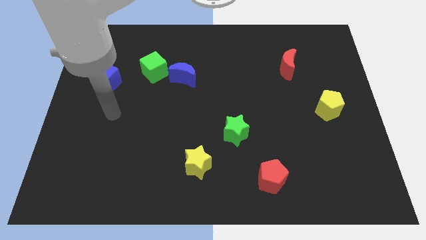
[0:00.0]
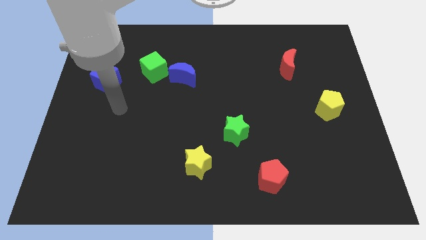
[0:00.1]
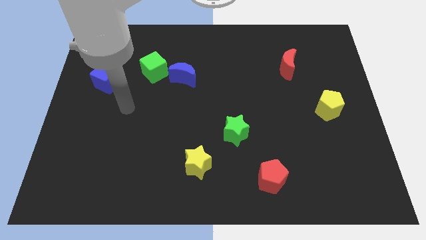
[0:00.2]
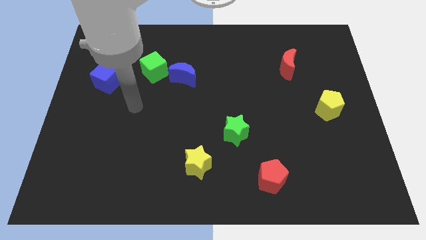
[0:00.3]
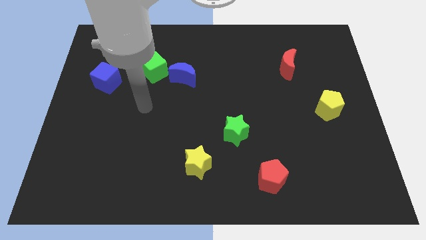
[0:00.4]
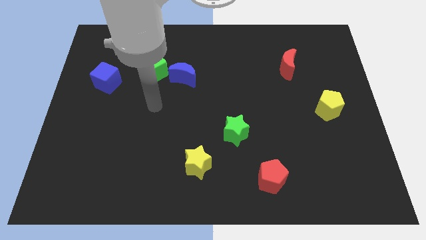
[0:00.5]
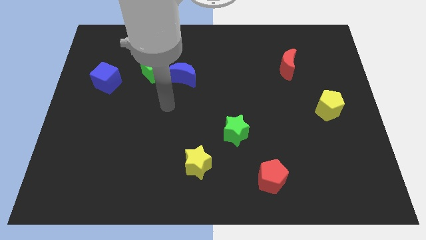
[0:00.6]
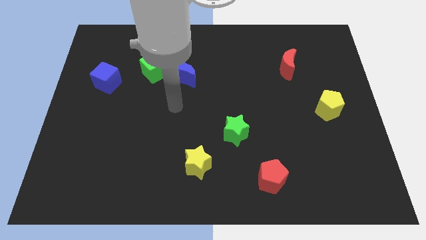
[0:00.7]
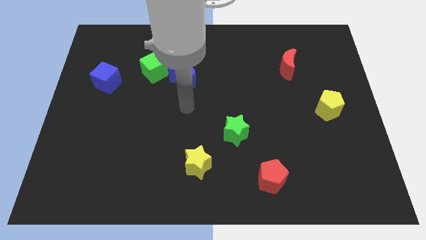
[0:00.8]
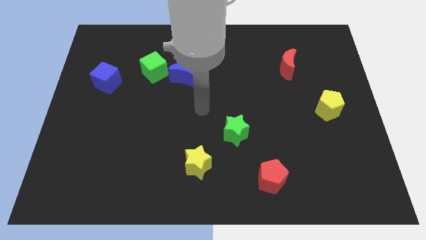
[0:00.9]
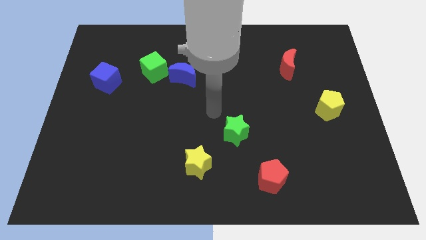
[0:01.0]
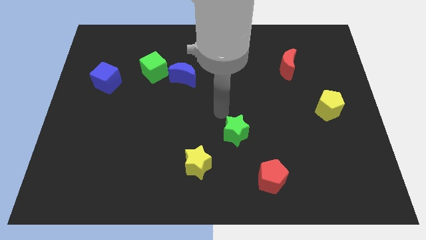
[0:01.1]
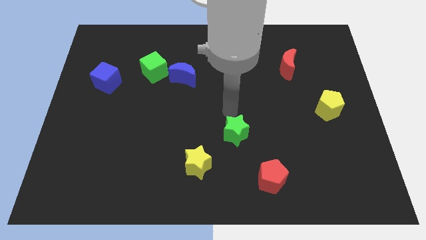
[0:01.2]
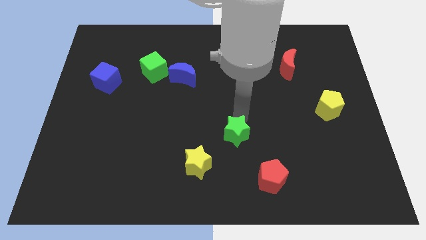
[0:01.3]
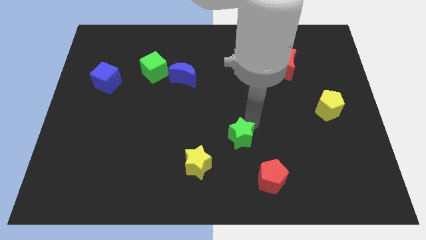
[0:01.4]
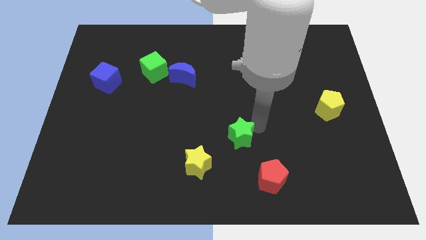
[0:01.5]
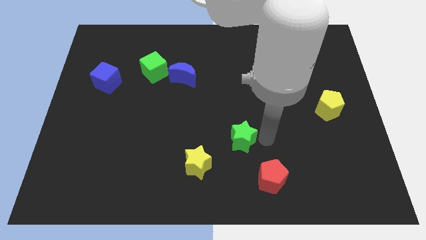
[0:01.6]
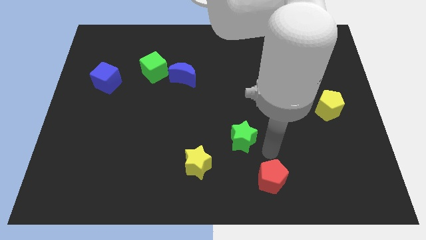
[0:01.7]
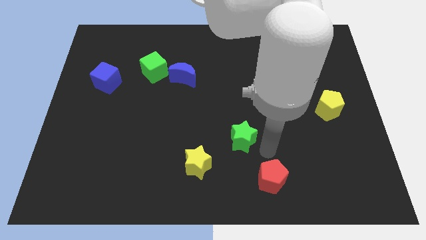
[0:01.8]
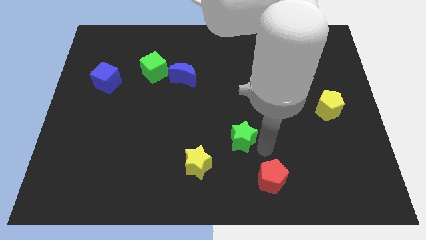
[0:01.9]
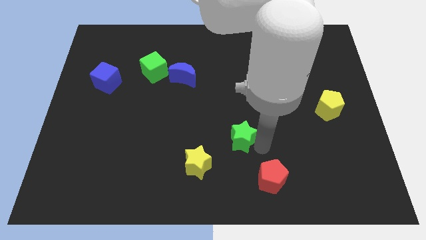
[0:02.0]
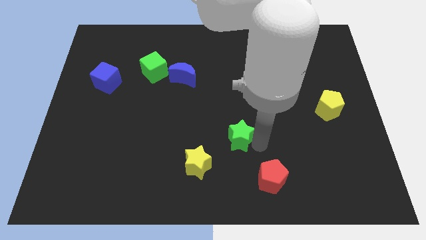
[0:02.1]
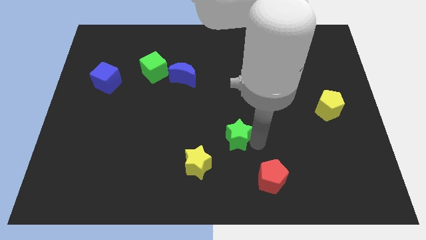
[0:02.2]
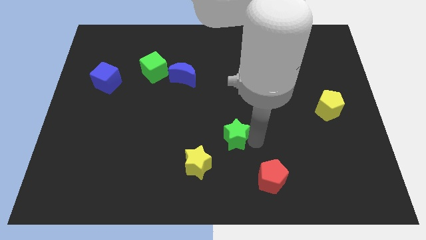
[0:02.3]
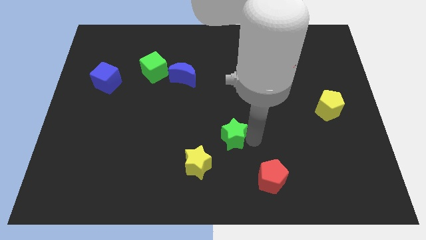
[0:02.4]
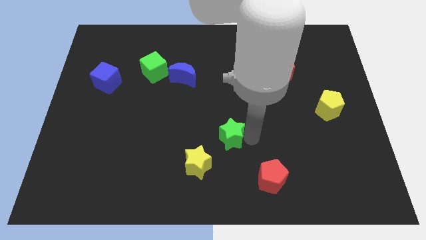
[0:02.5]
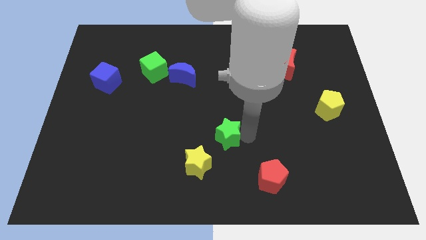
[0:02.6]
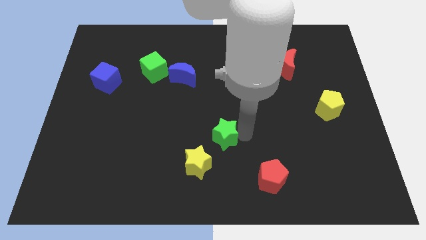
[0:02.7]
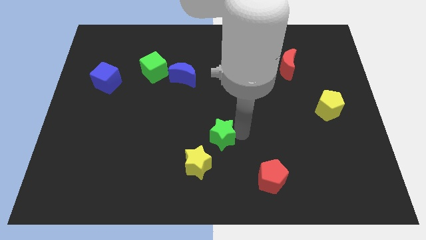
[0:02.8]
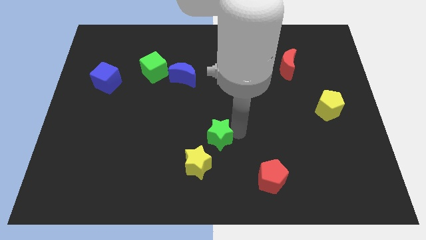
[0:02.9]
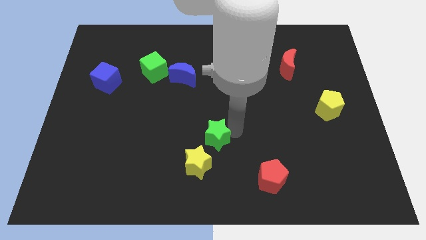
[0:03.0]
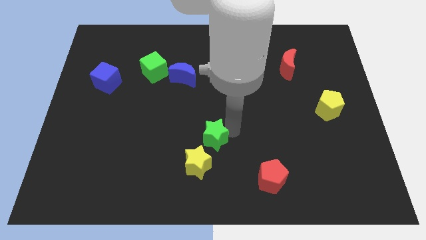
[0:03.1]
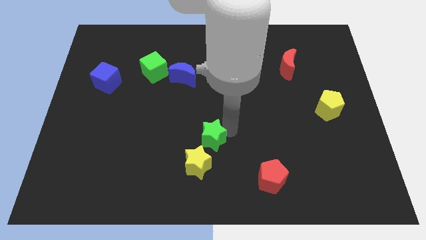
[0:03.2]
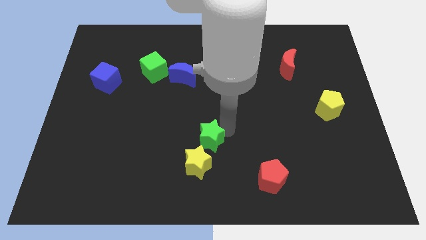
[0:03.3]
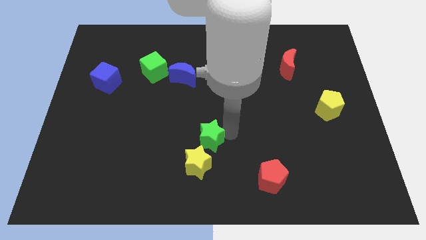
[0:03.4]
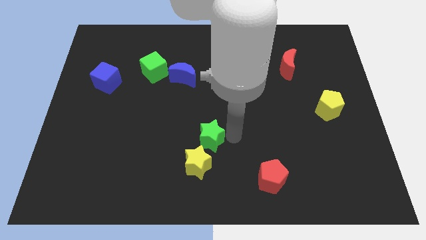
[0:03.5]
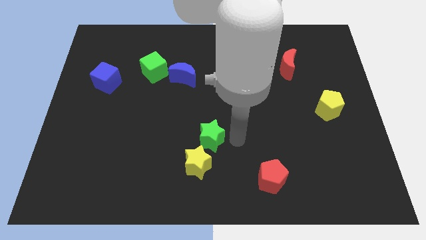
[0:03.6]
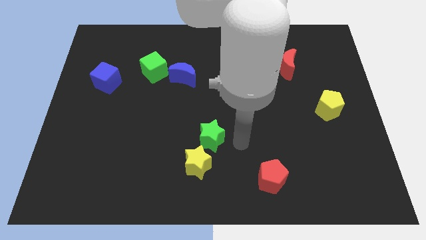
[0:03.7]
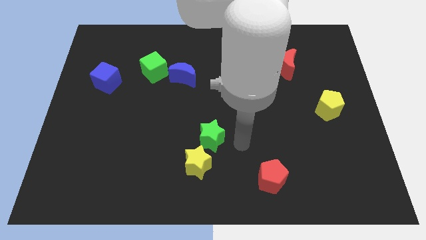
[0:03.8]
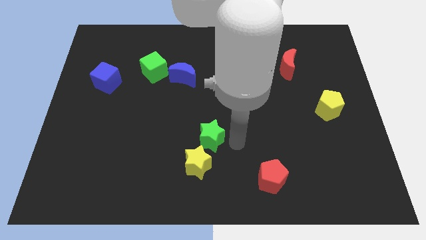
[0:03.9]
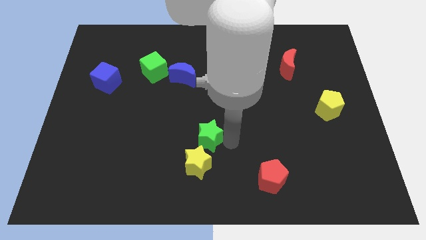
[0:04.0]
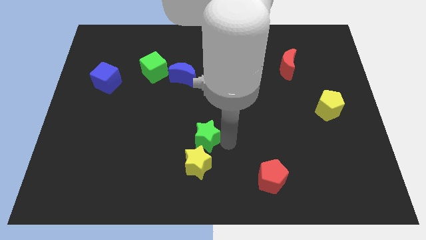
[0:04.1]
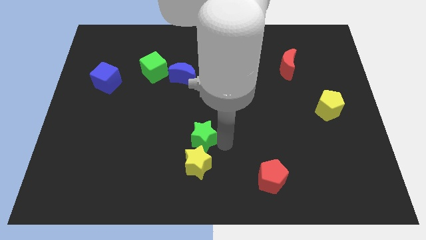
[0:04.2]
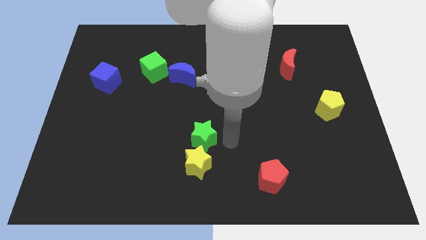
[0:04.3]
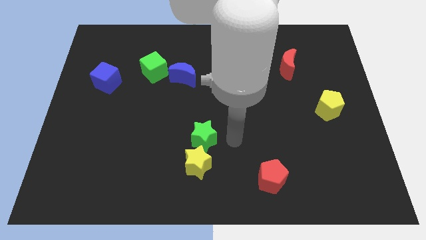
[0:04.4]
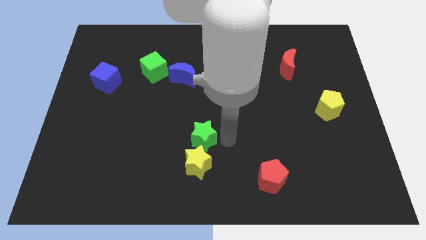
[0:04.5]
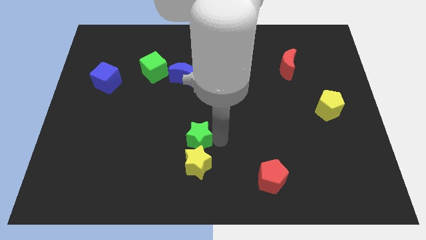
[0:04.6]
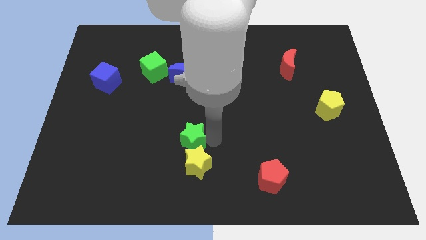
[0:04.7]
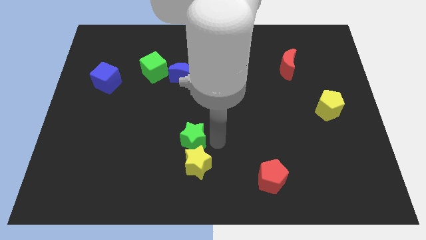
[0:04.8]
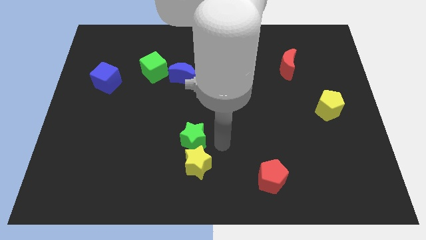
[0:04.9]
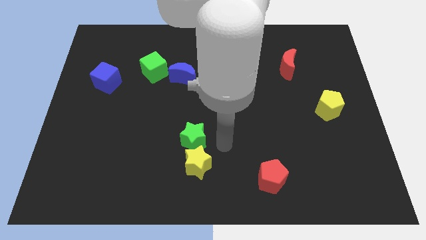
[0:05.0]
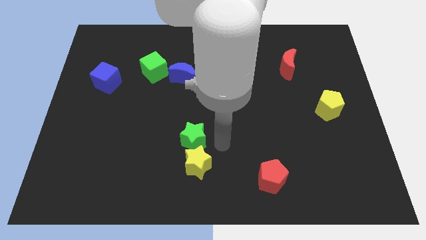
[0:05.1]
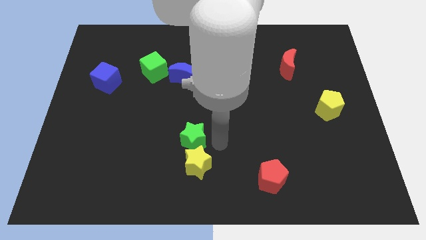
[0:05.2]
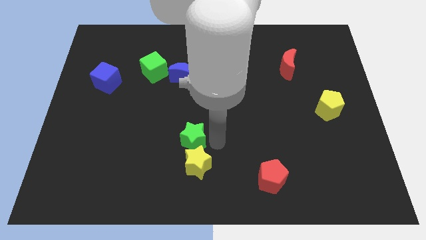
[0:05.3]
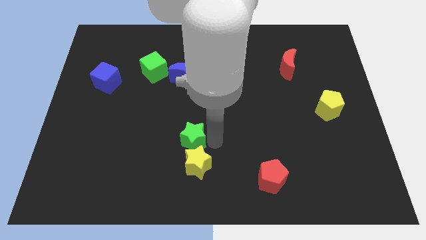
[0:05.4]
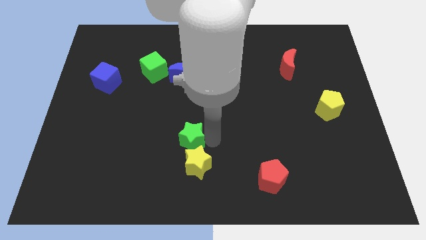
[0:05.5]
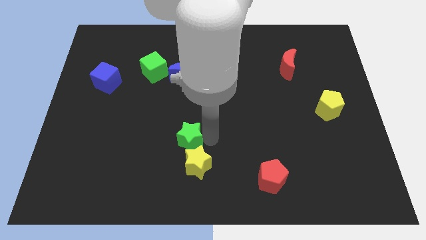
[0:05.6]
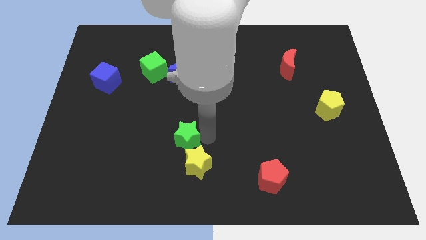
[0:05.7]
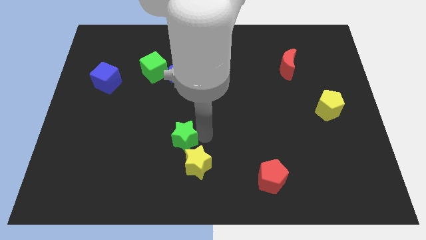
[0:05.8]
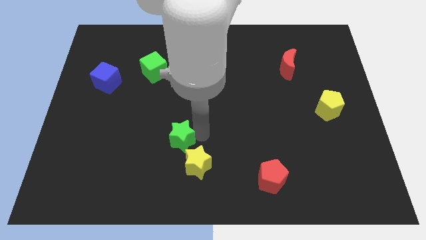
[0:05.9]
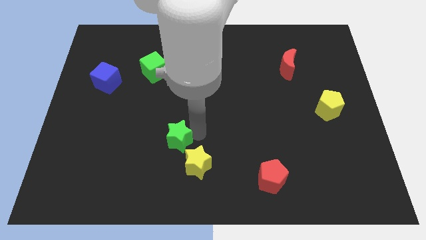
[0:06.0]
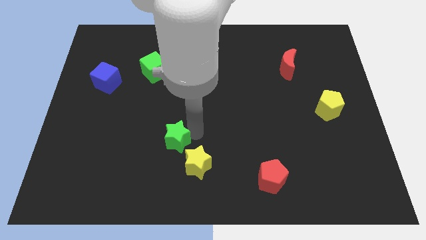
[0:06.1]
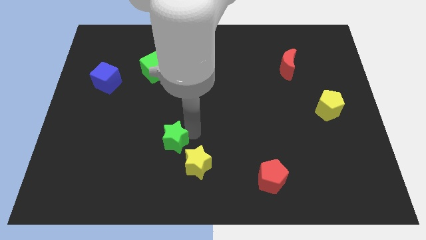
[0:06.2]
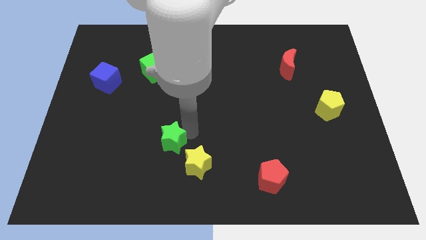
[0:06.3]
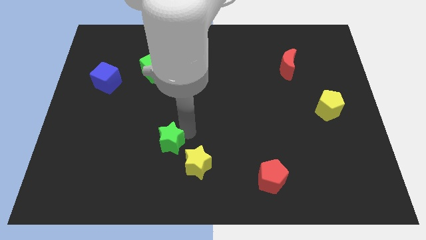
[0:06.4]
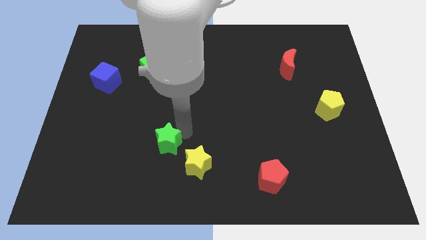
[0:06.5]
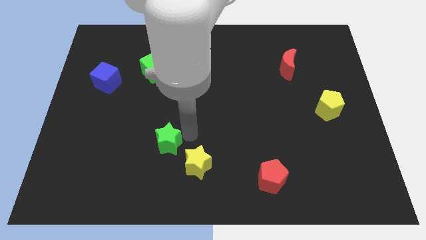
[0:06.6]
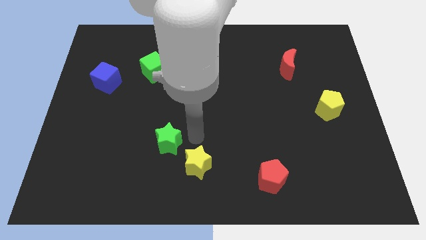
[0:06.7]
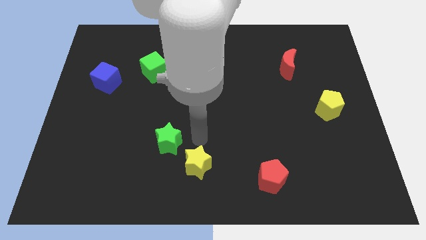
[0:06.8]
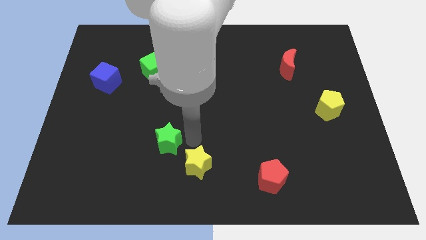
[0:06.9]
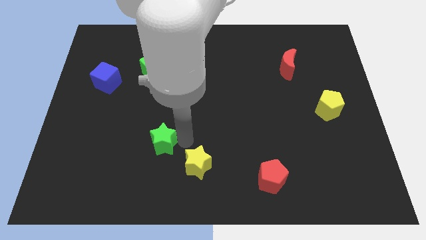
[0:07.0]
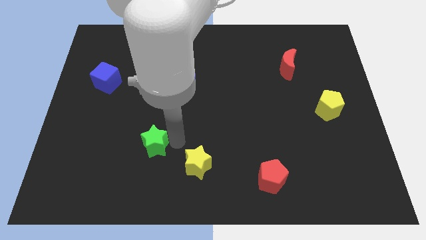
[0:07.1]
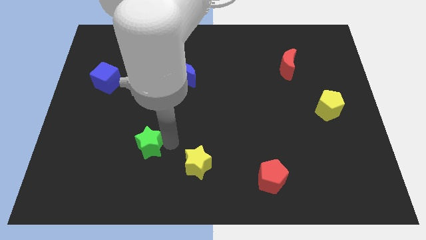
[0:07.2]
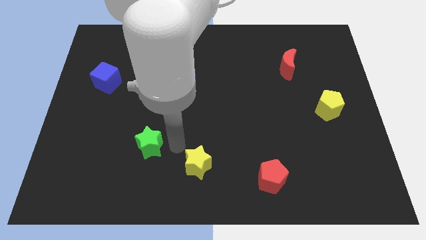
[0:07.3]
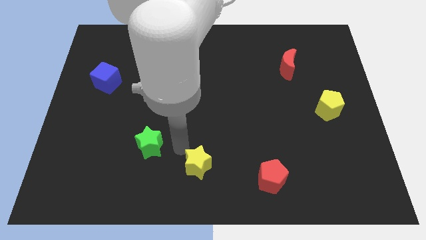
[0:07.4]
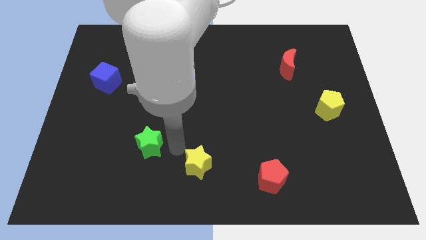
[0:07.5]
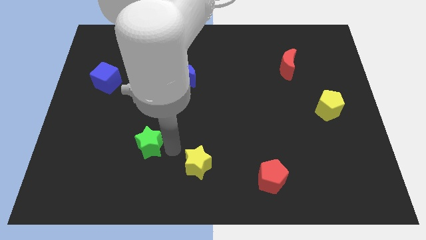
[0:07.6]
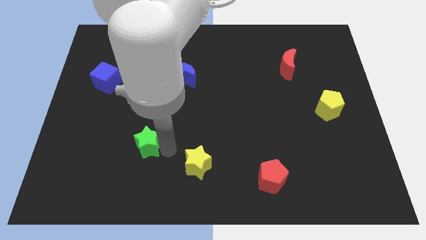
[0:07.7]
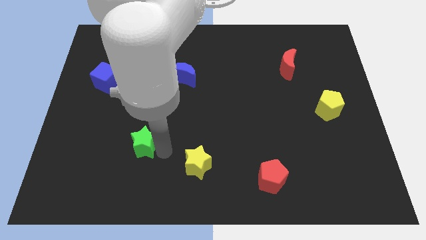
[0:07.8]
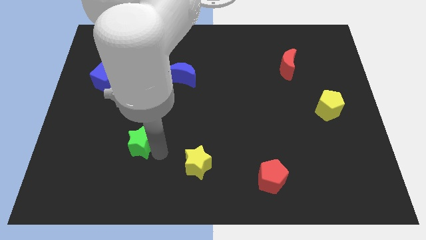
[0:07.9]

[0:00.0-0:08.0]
slide the green star to the left
